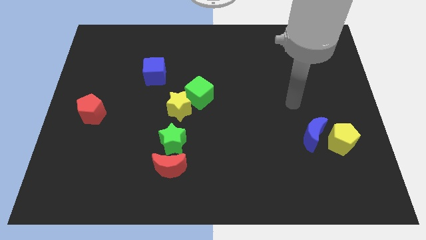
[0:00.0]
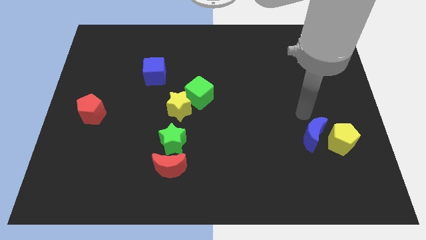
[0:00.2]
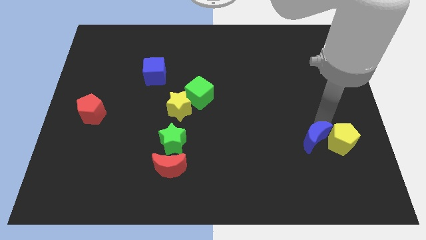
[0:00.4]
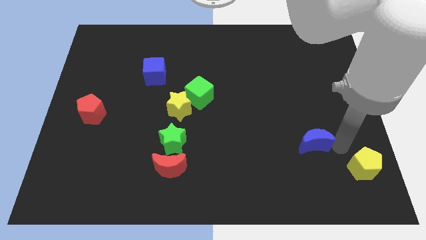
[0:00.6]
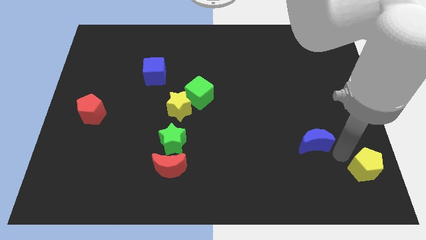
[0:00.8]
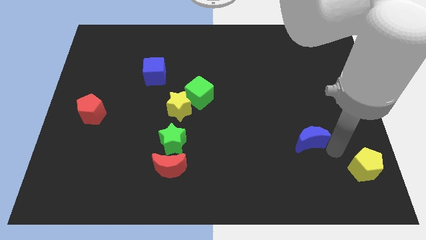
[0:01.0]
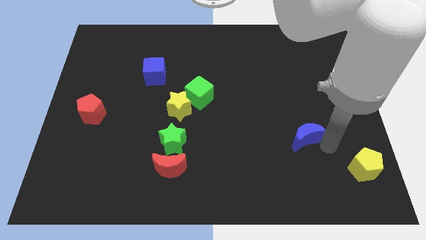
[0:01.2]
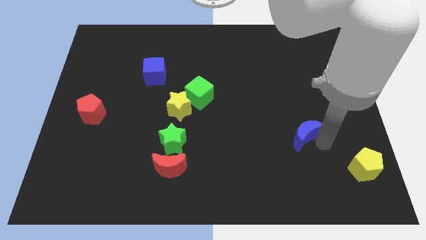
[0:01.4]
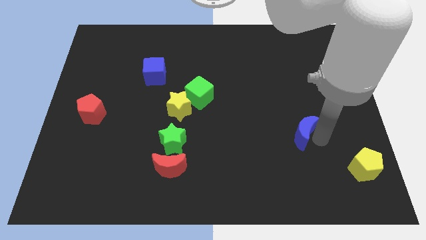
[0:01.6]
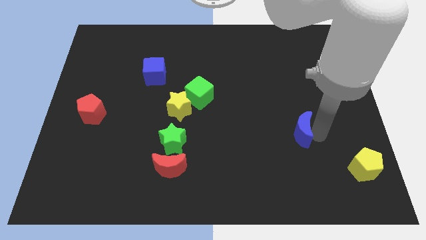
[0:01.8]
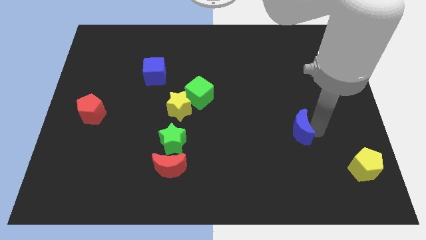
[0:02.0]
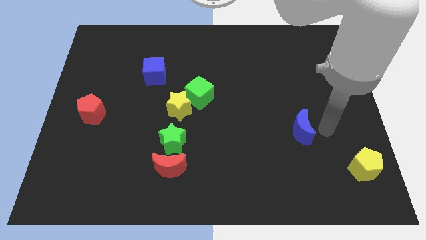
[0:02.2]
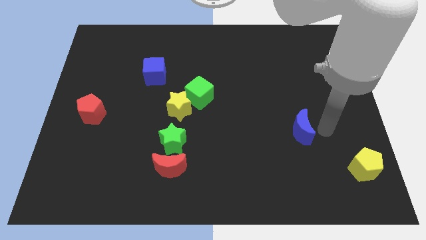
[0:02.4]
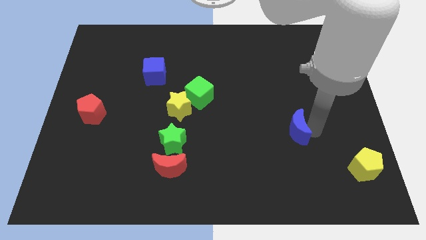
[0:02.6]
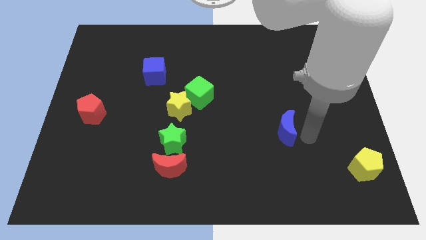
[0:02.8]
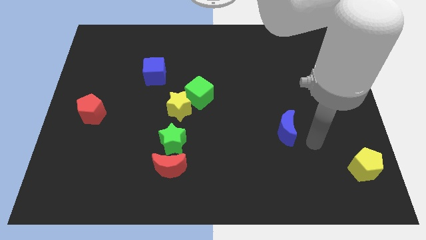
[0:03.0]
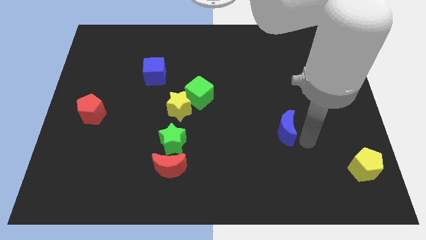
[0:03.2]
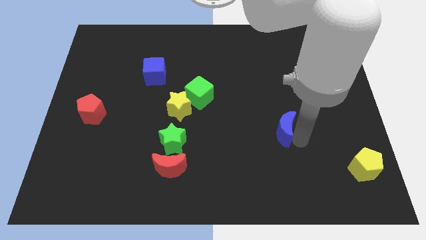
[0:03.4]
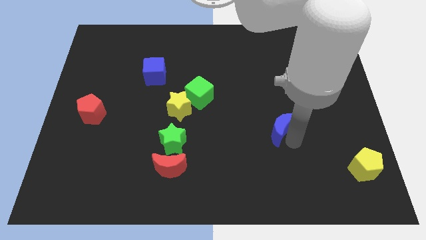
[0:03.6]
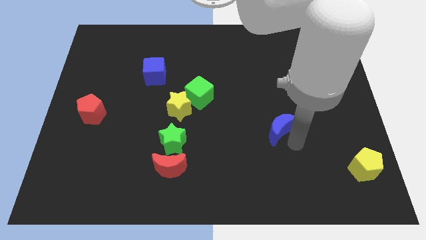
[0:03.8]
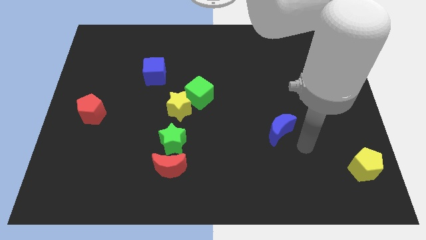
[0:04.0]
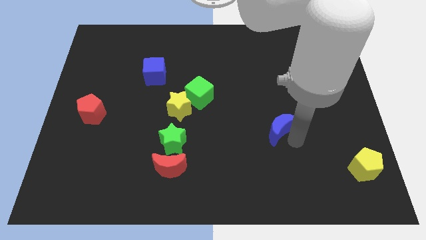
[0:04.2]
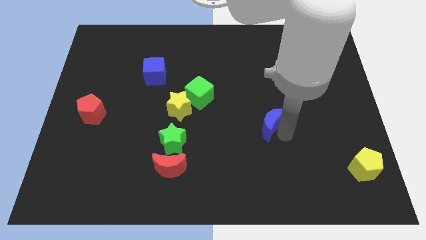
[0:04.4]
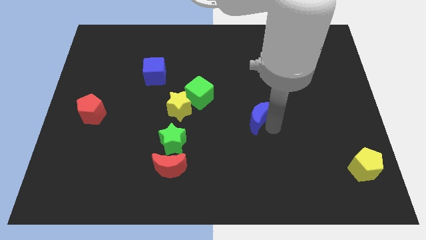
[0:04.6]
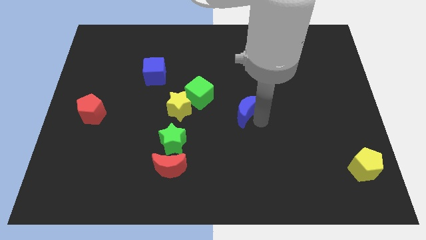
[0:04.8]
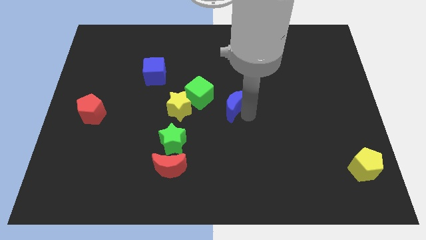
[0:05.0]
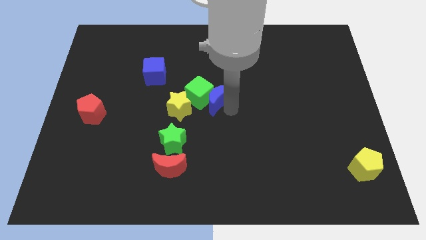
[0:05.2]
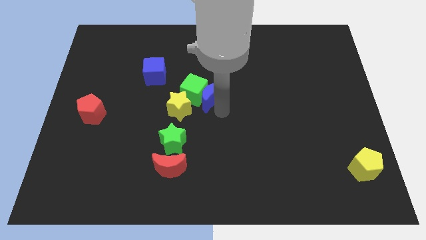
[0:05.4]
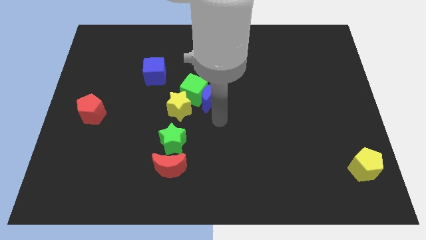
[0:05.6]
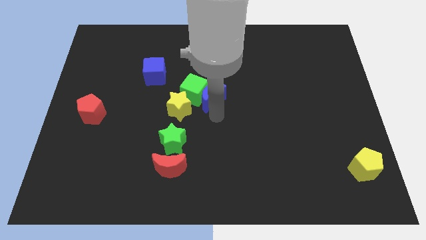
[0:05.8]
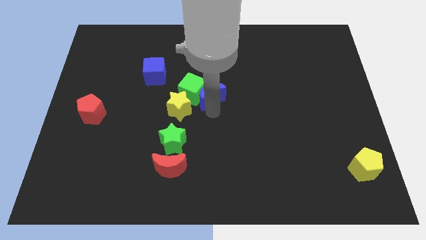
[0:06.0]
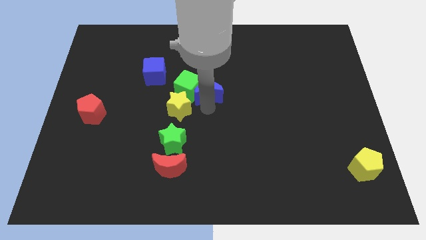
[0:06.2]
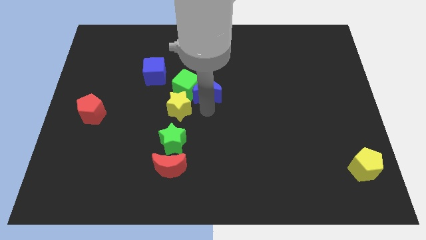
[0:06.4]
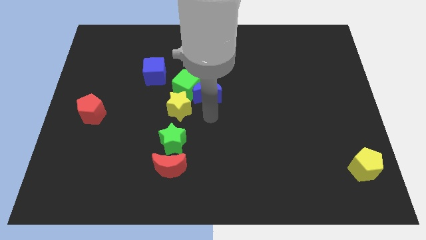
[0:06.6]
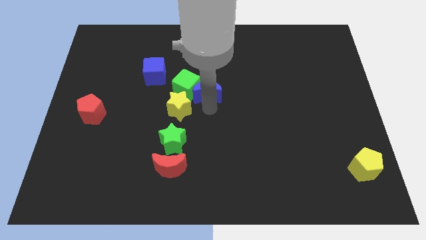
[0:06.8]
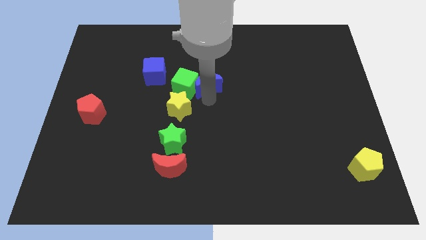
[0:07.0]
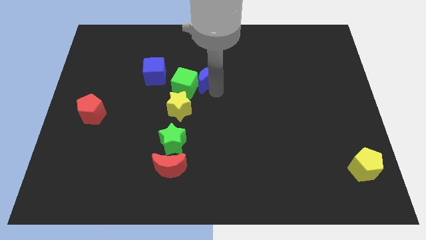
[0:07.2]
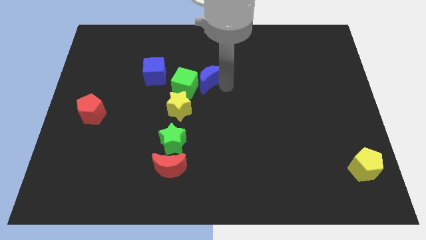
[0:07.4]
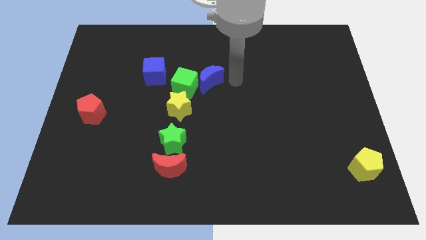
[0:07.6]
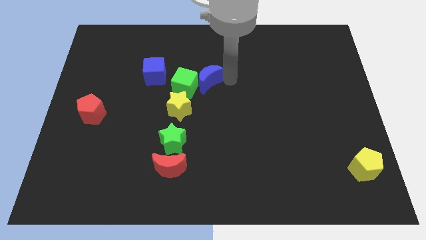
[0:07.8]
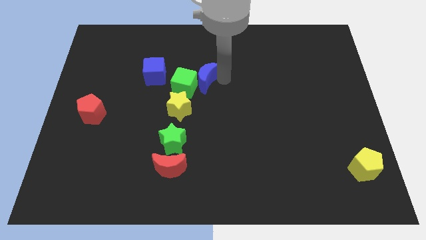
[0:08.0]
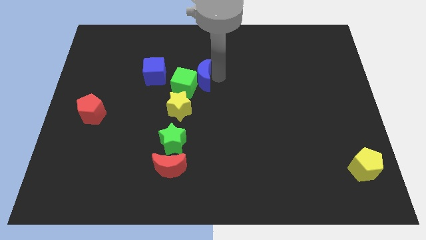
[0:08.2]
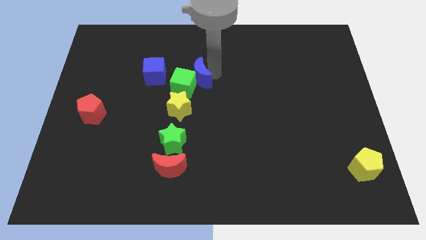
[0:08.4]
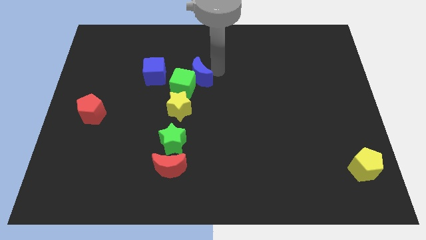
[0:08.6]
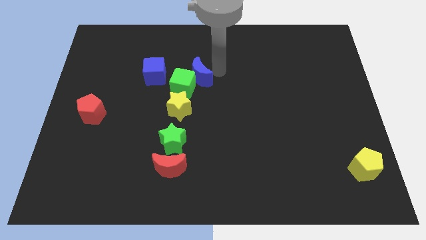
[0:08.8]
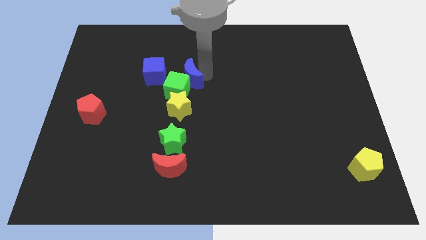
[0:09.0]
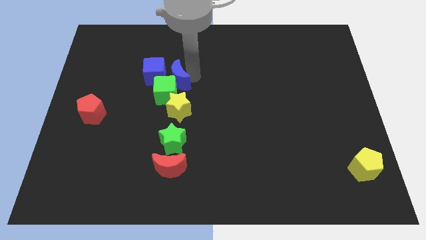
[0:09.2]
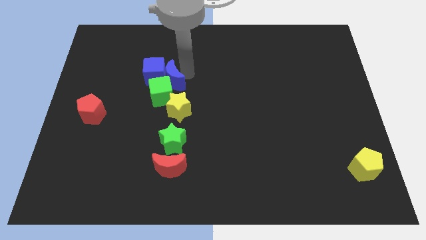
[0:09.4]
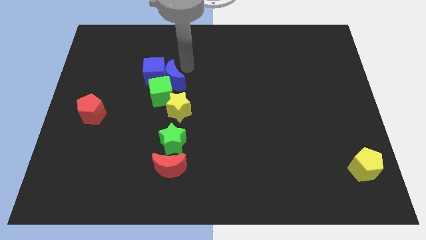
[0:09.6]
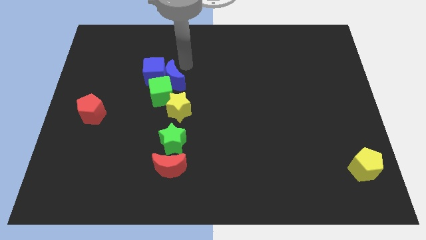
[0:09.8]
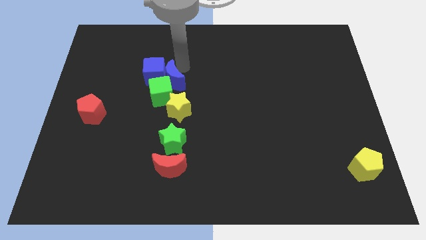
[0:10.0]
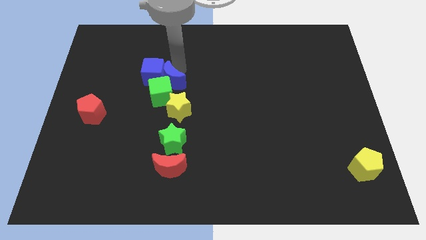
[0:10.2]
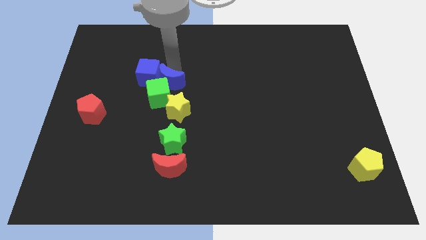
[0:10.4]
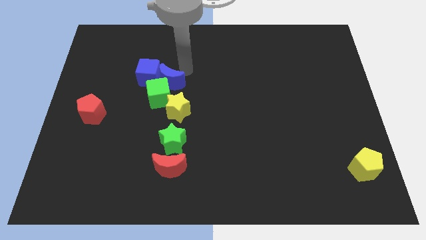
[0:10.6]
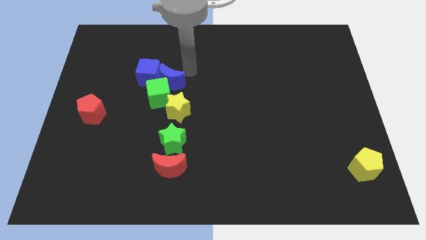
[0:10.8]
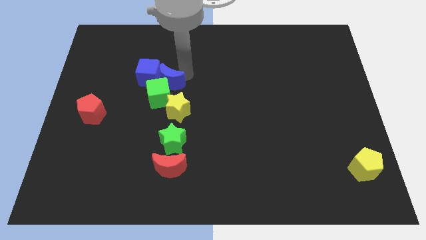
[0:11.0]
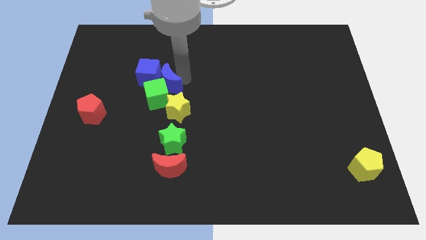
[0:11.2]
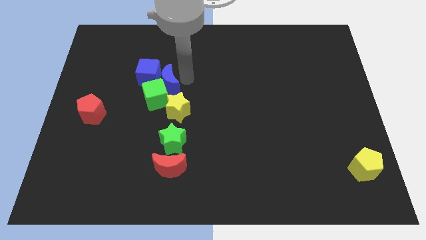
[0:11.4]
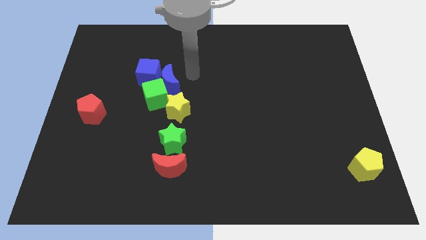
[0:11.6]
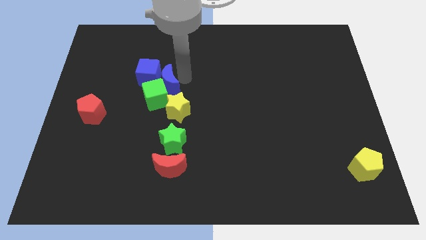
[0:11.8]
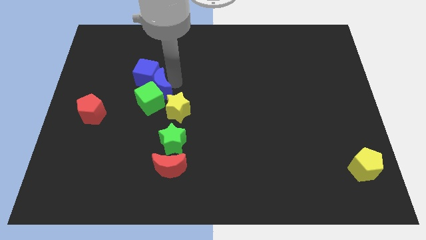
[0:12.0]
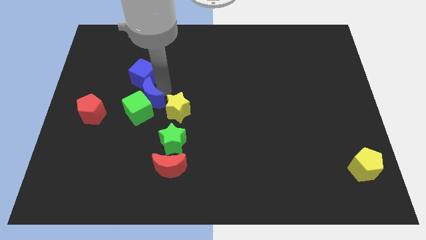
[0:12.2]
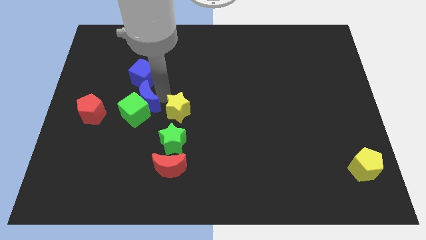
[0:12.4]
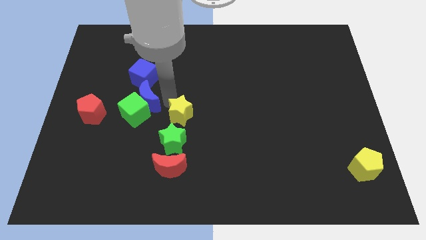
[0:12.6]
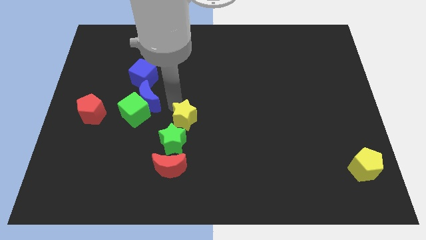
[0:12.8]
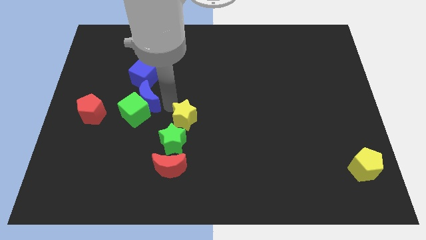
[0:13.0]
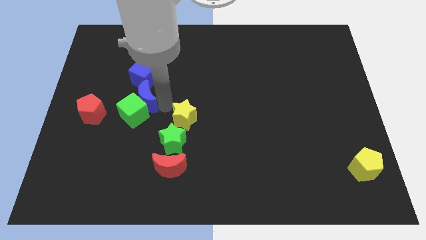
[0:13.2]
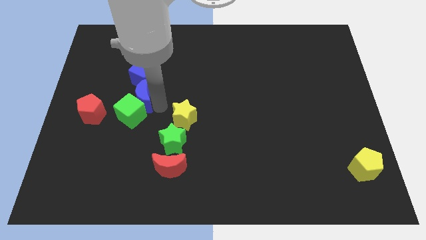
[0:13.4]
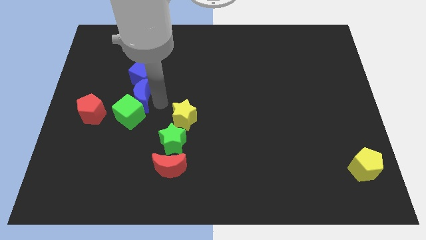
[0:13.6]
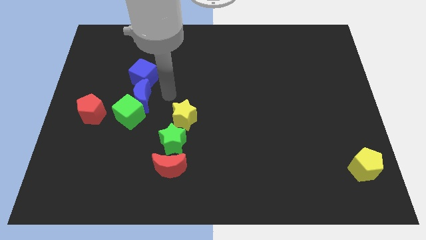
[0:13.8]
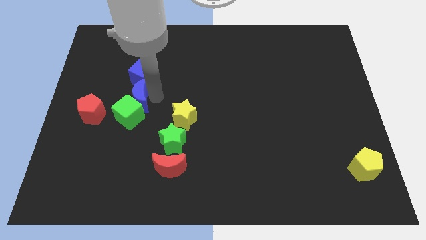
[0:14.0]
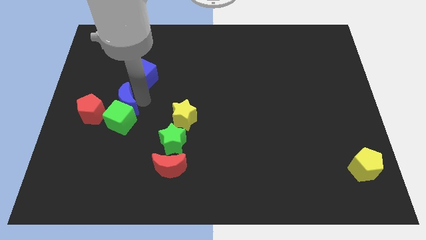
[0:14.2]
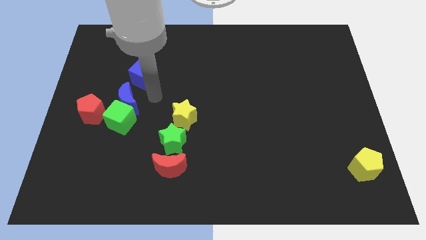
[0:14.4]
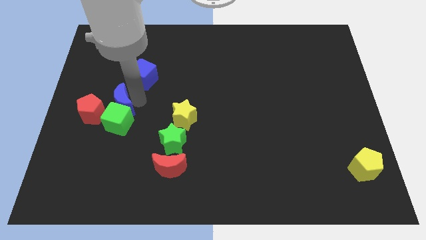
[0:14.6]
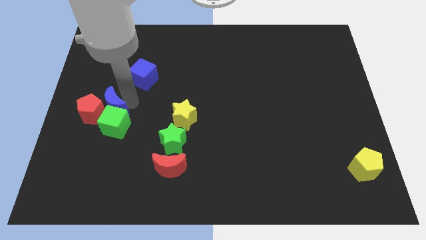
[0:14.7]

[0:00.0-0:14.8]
push the blue moon close to the red pentagon
